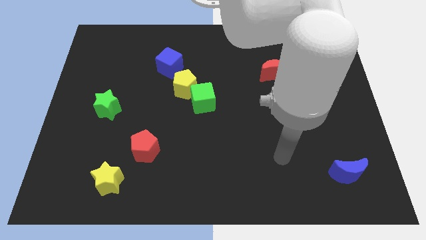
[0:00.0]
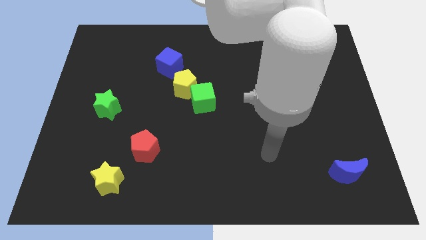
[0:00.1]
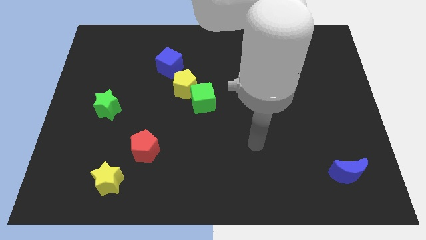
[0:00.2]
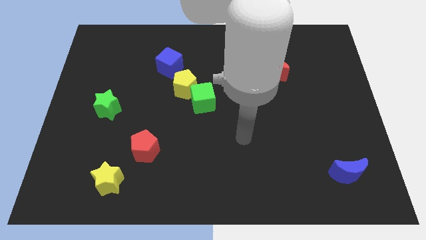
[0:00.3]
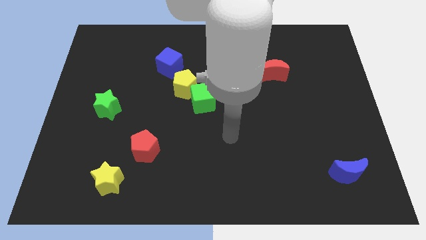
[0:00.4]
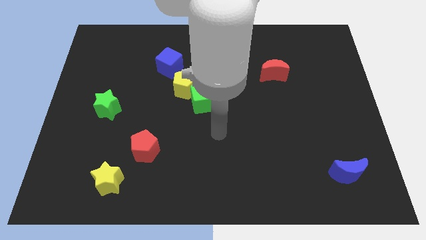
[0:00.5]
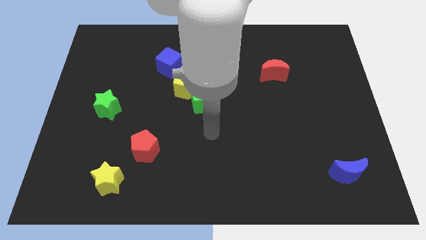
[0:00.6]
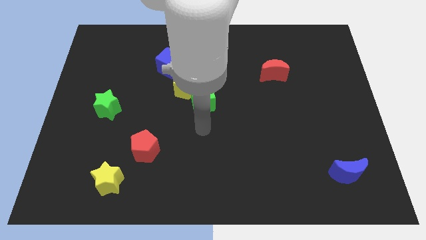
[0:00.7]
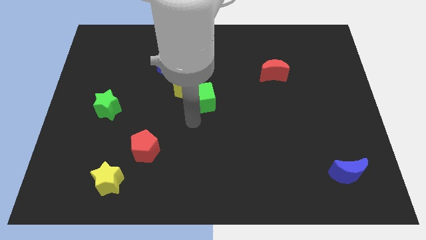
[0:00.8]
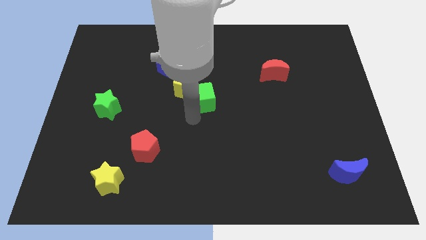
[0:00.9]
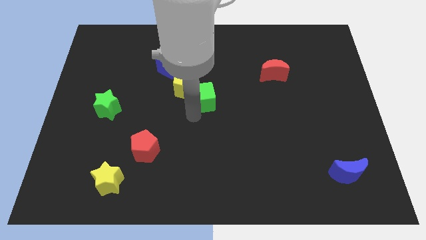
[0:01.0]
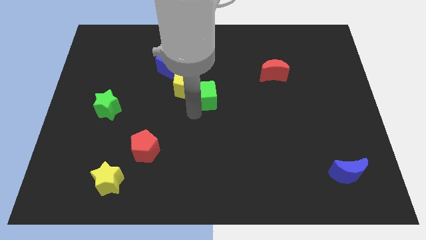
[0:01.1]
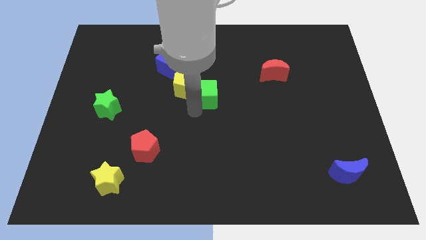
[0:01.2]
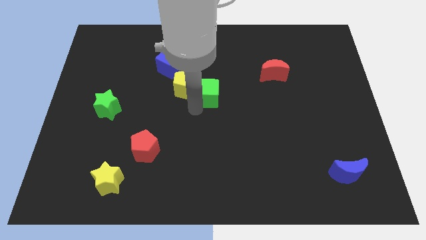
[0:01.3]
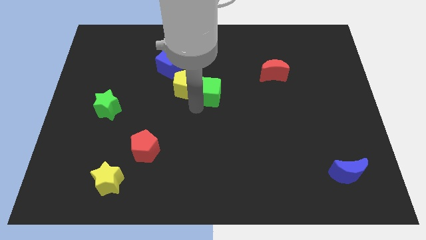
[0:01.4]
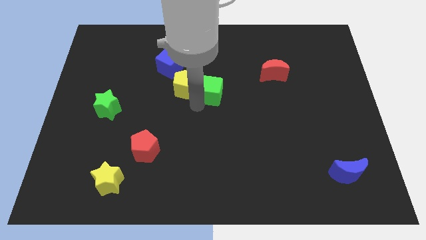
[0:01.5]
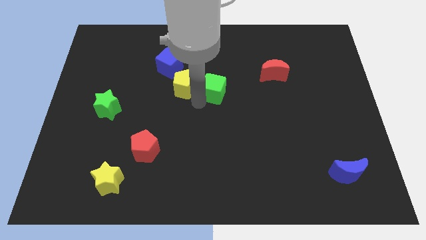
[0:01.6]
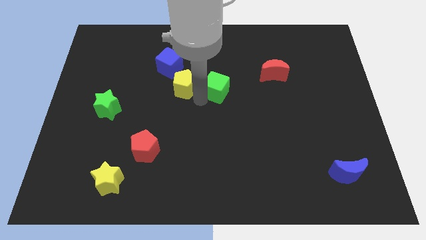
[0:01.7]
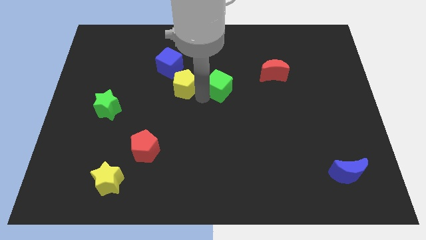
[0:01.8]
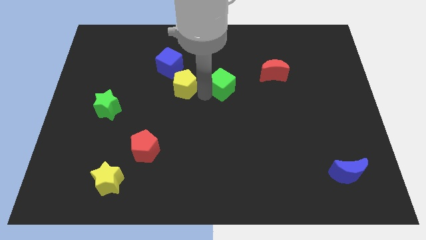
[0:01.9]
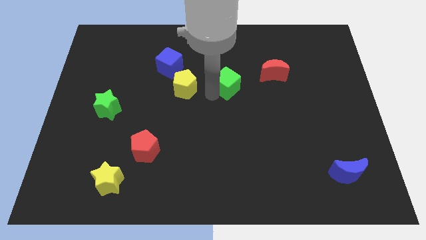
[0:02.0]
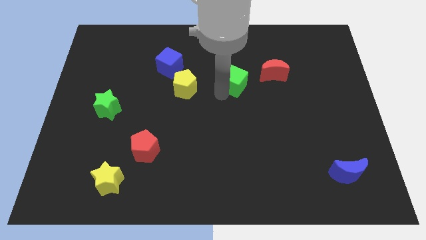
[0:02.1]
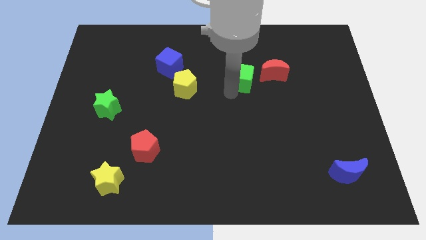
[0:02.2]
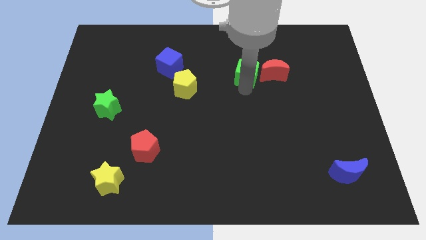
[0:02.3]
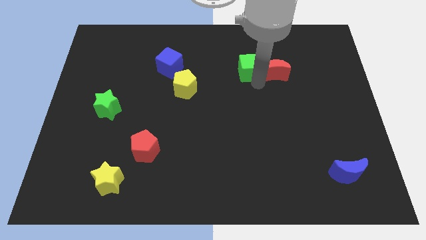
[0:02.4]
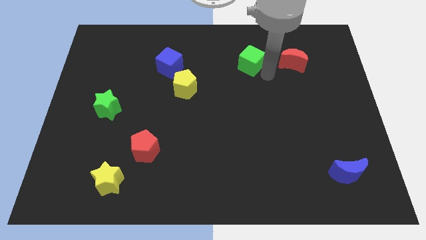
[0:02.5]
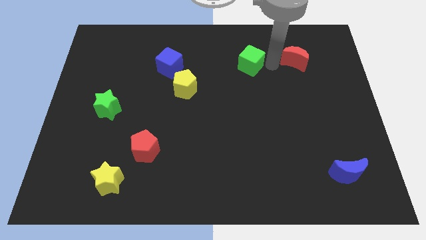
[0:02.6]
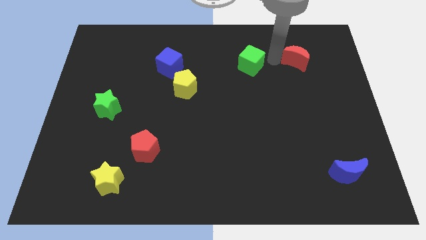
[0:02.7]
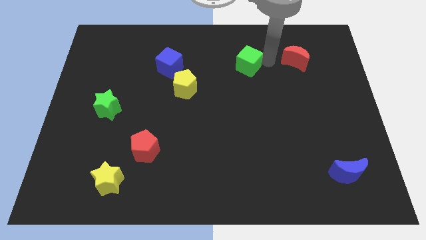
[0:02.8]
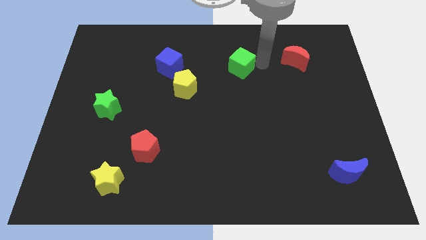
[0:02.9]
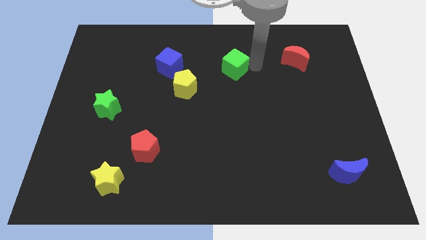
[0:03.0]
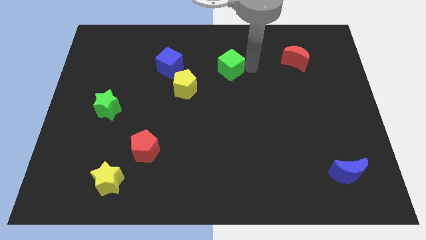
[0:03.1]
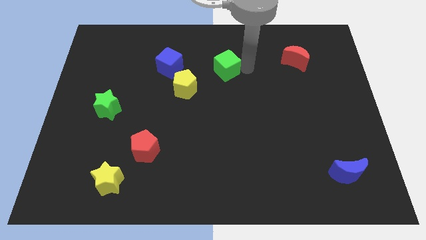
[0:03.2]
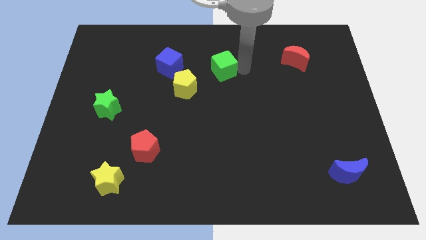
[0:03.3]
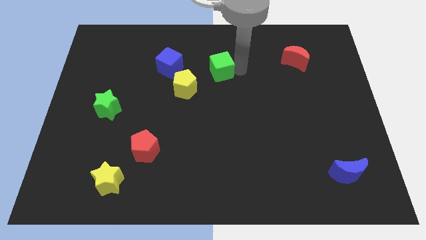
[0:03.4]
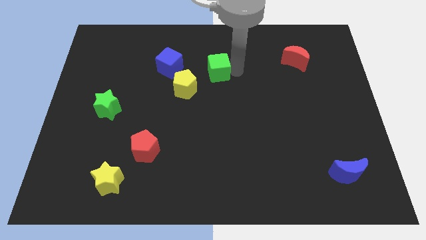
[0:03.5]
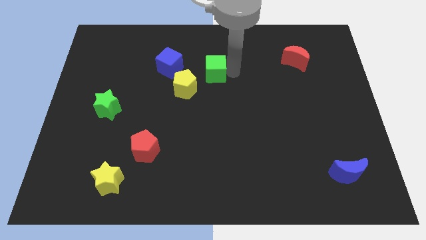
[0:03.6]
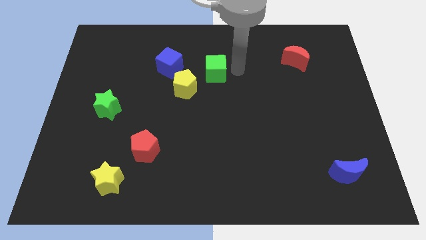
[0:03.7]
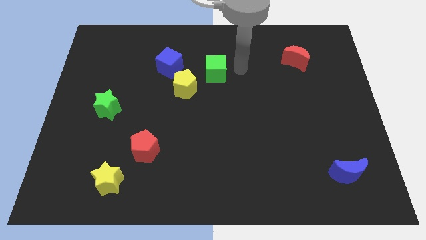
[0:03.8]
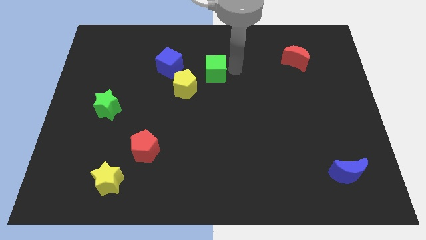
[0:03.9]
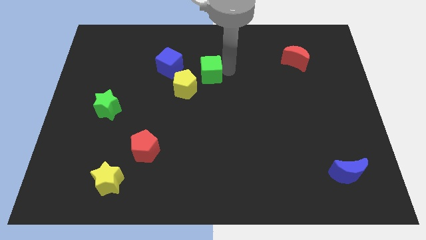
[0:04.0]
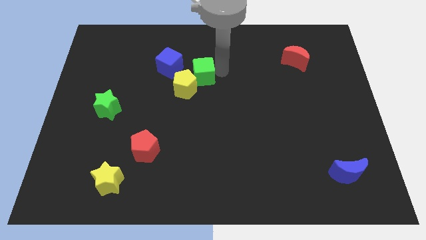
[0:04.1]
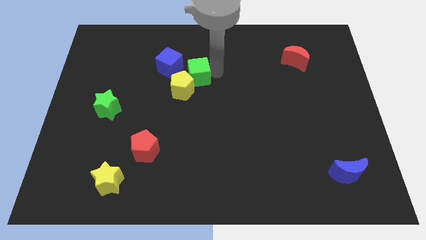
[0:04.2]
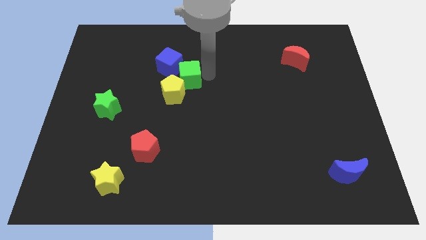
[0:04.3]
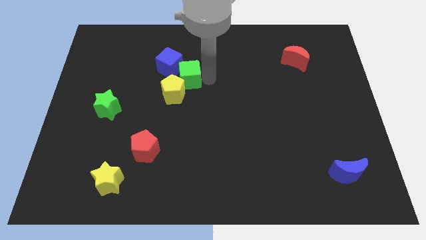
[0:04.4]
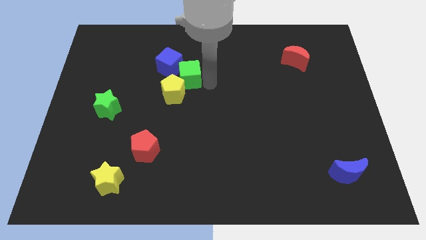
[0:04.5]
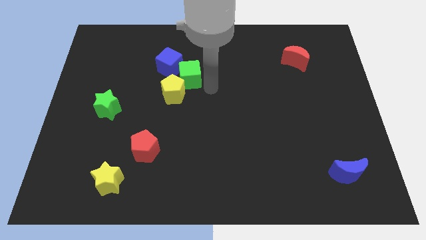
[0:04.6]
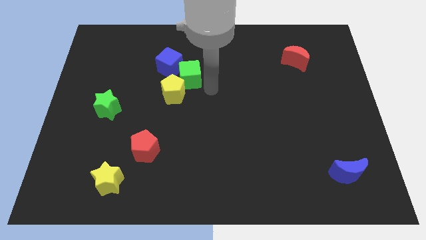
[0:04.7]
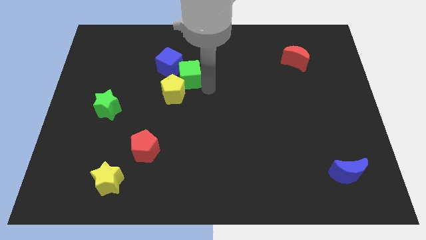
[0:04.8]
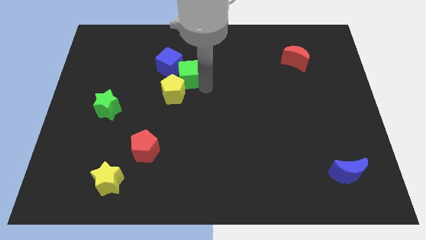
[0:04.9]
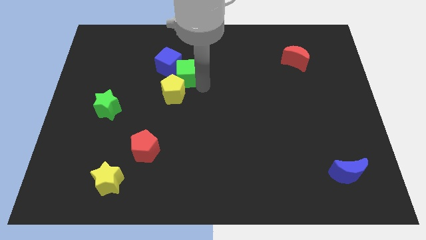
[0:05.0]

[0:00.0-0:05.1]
put the green cube to the blue cube

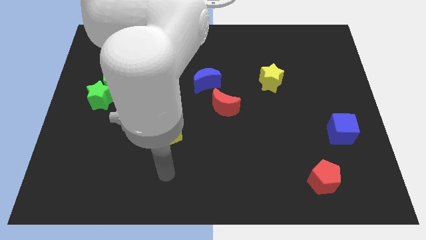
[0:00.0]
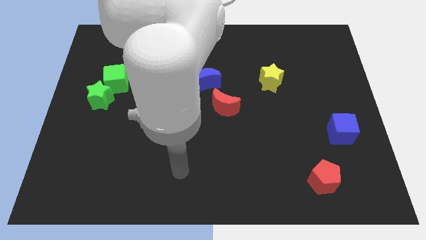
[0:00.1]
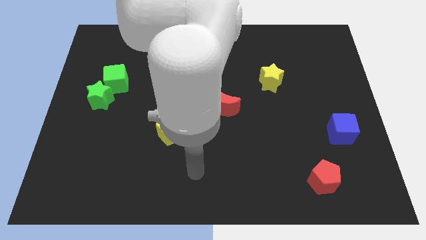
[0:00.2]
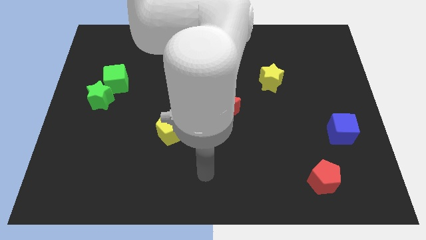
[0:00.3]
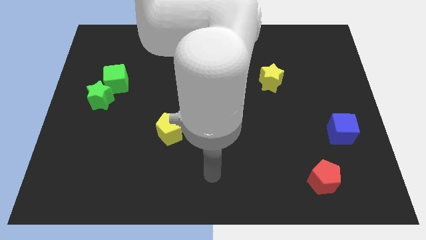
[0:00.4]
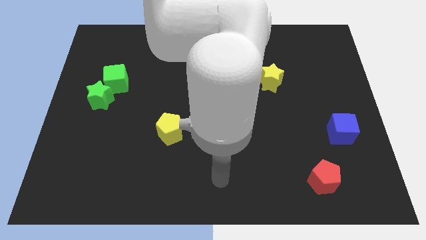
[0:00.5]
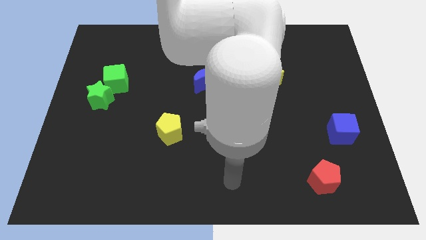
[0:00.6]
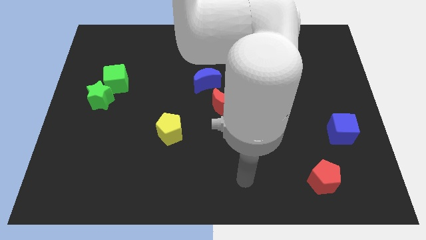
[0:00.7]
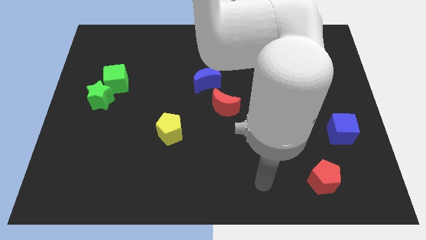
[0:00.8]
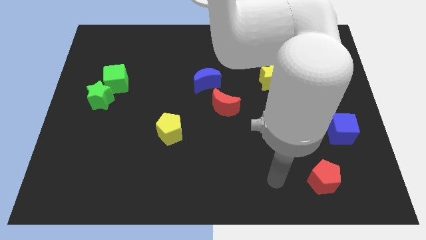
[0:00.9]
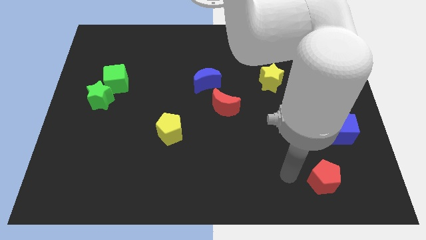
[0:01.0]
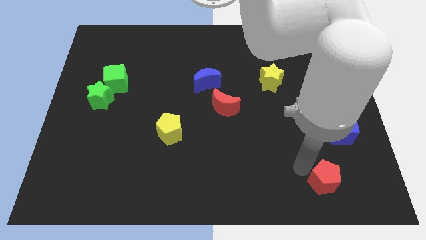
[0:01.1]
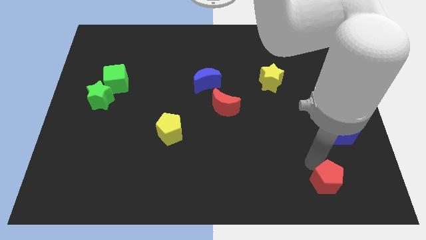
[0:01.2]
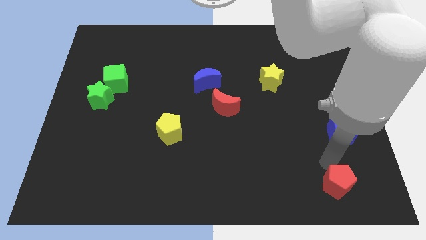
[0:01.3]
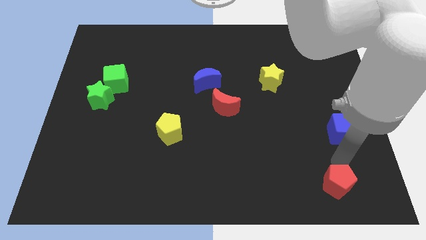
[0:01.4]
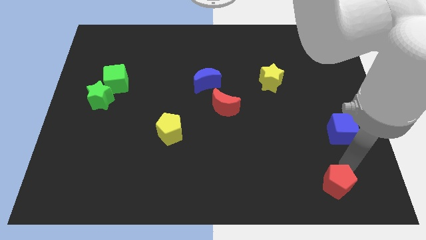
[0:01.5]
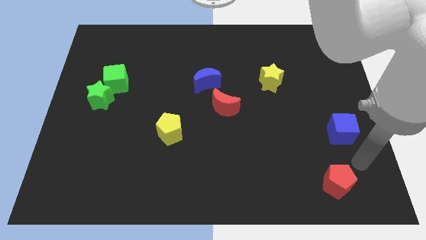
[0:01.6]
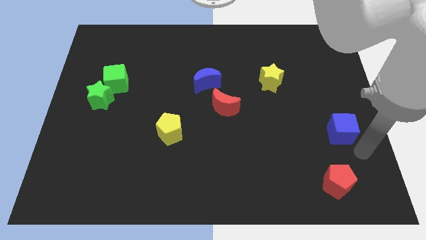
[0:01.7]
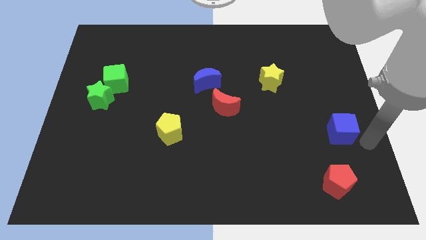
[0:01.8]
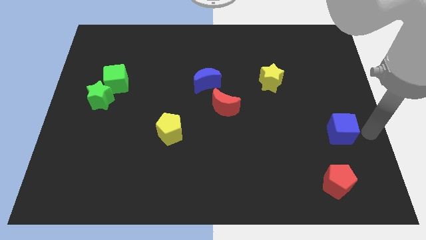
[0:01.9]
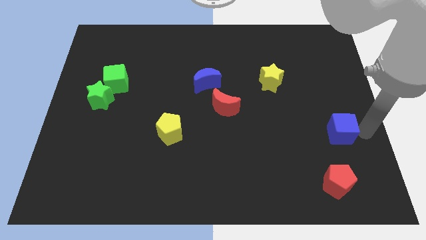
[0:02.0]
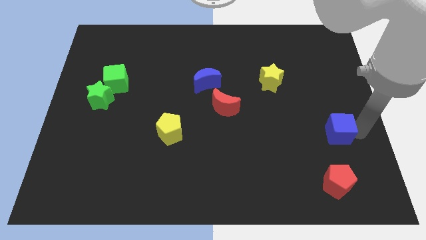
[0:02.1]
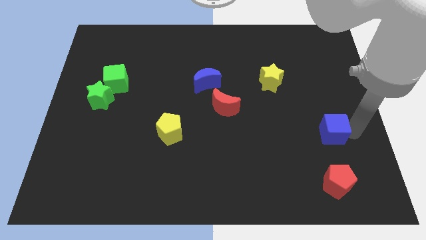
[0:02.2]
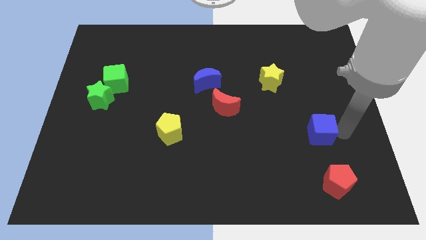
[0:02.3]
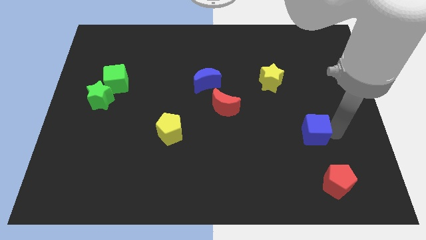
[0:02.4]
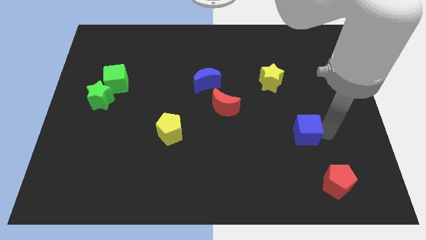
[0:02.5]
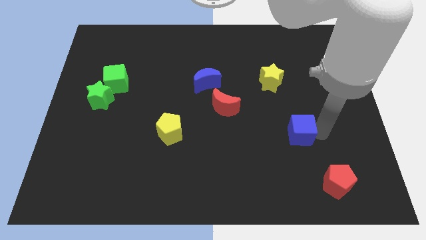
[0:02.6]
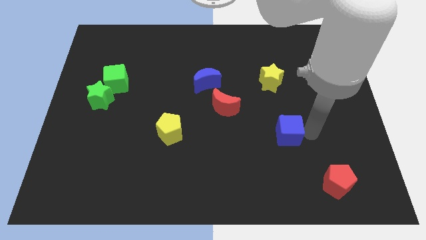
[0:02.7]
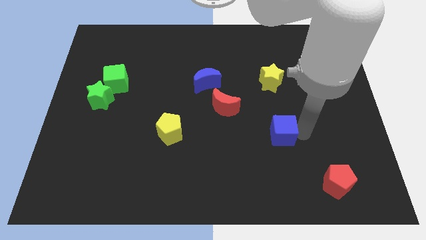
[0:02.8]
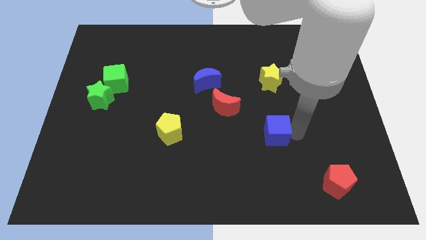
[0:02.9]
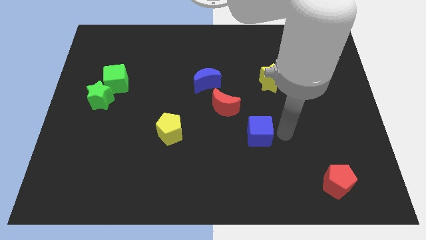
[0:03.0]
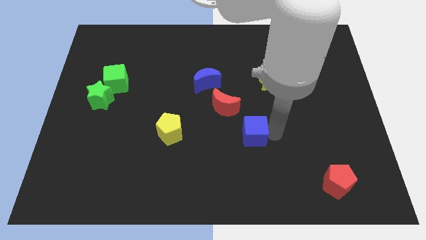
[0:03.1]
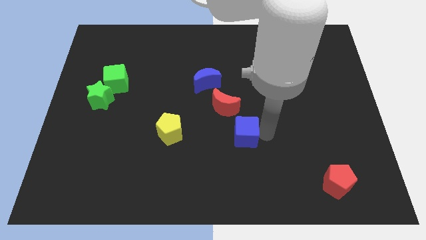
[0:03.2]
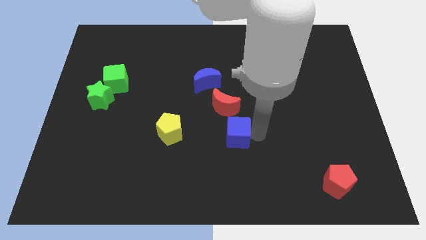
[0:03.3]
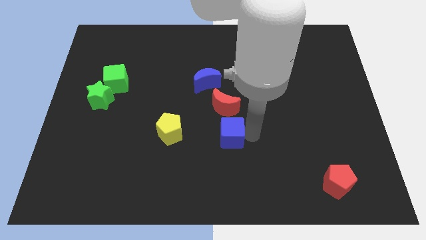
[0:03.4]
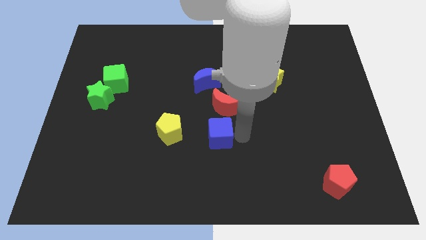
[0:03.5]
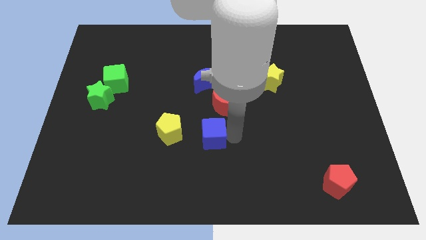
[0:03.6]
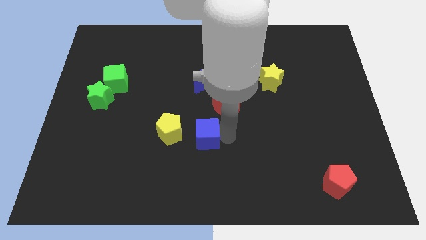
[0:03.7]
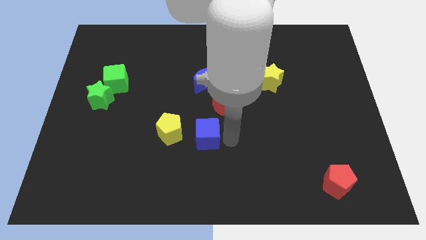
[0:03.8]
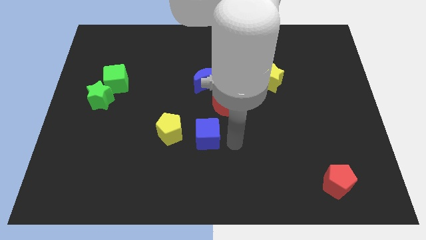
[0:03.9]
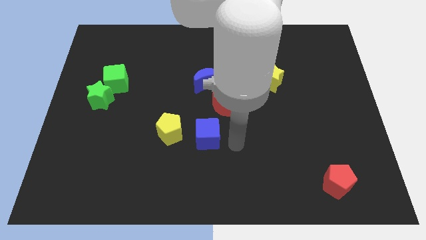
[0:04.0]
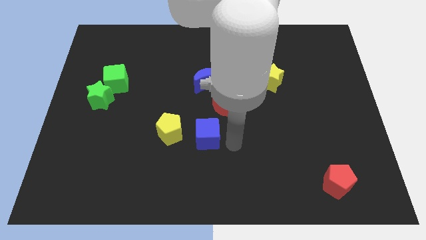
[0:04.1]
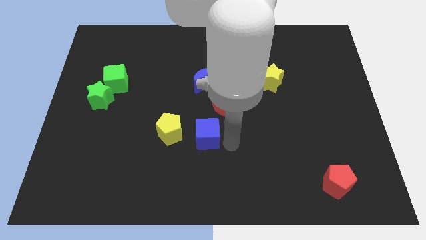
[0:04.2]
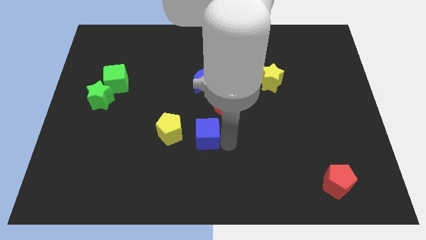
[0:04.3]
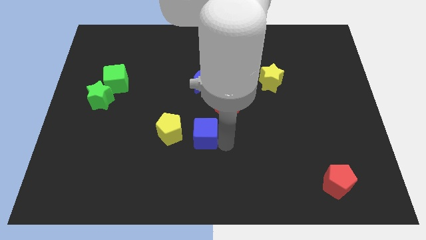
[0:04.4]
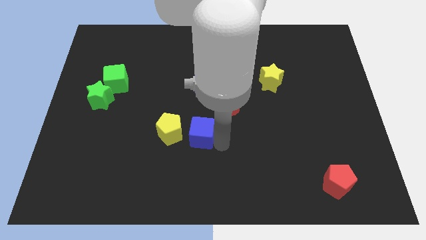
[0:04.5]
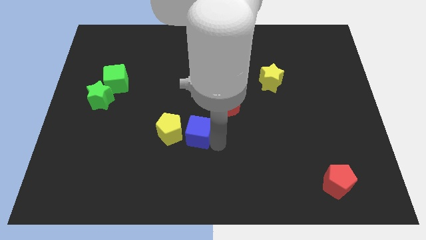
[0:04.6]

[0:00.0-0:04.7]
push the blue cube close to the yellow pentagon
